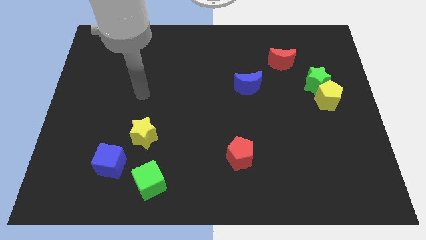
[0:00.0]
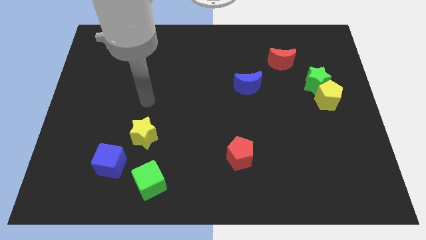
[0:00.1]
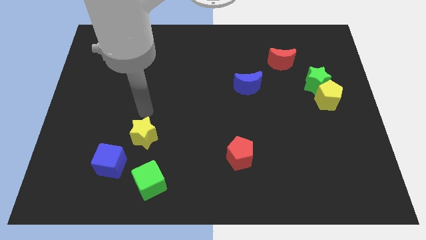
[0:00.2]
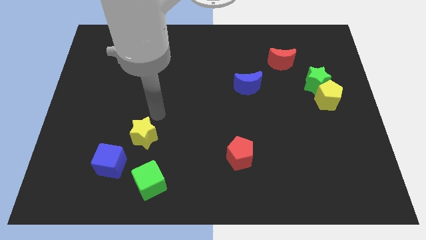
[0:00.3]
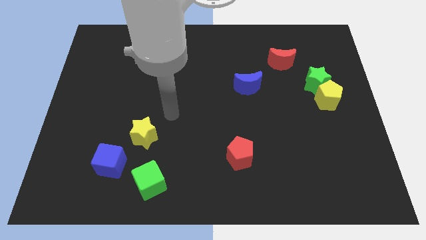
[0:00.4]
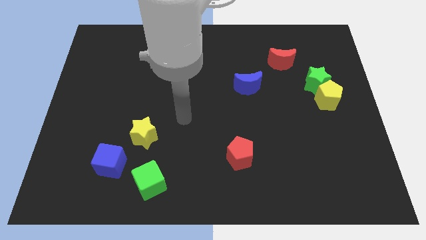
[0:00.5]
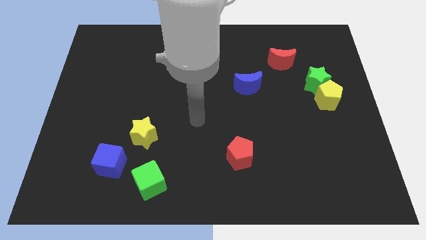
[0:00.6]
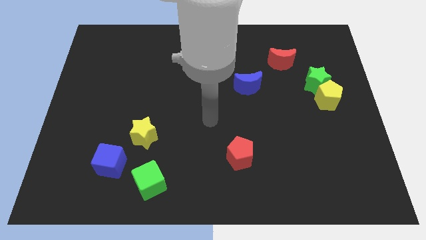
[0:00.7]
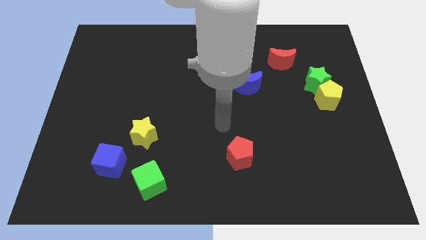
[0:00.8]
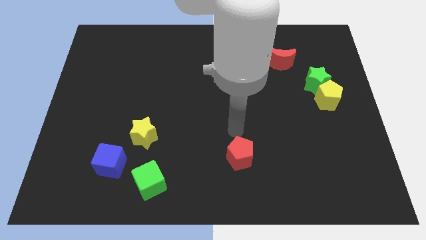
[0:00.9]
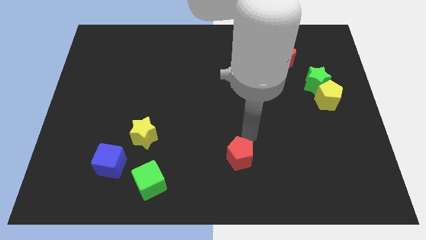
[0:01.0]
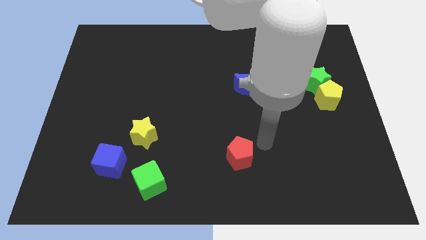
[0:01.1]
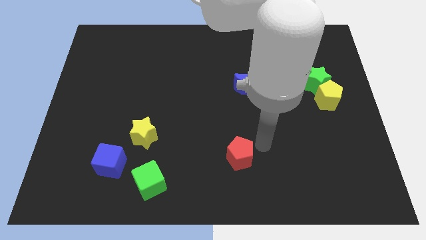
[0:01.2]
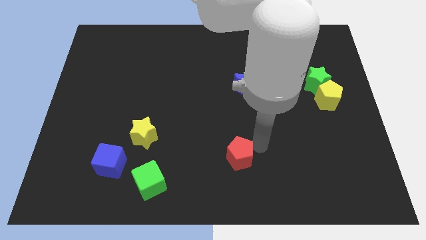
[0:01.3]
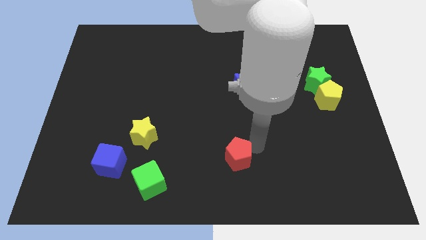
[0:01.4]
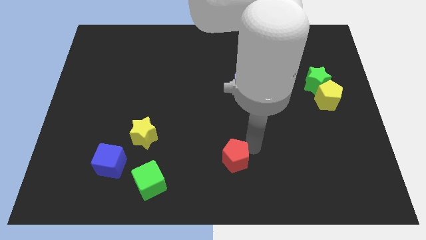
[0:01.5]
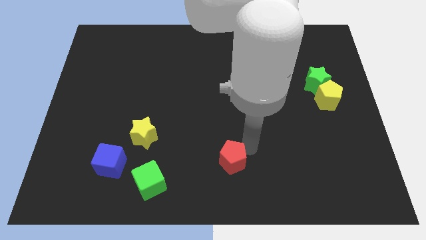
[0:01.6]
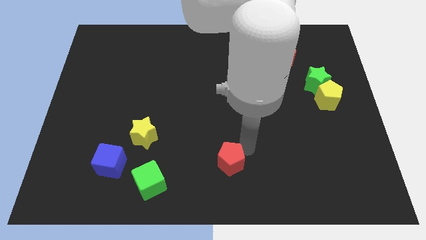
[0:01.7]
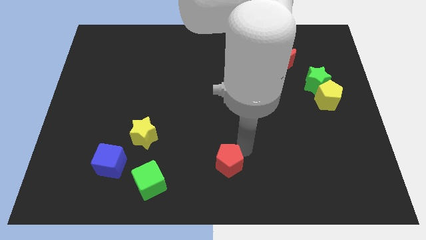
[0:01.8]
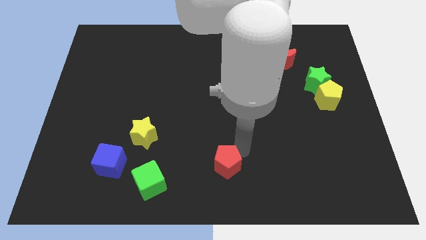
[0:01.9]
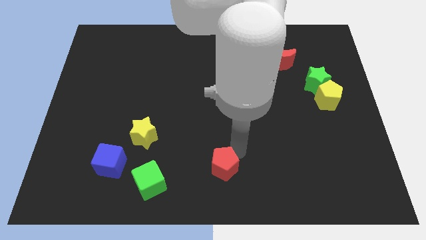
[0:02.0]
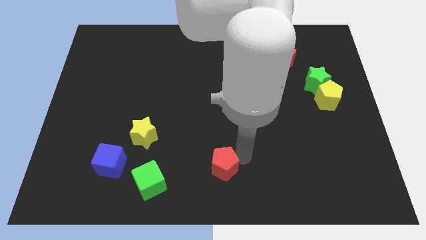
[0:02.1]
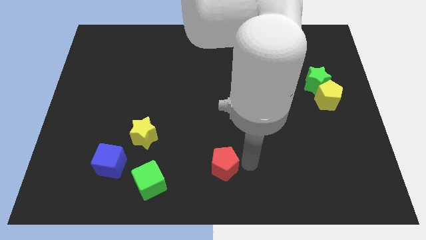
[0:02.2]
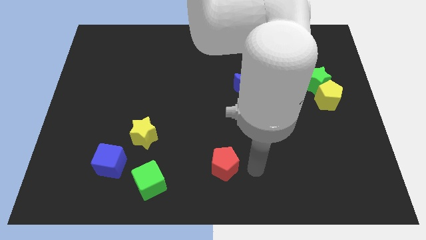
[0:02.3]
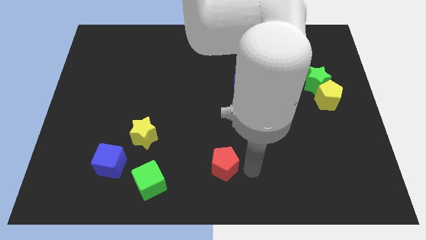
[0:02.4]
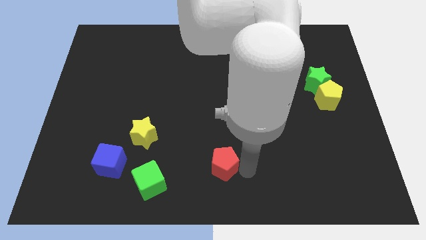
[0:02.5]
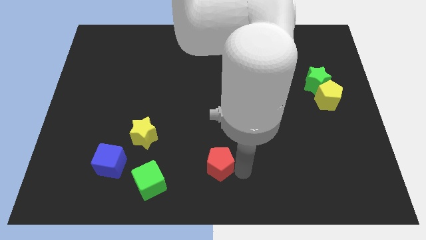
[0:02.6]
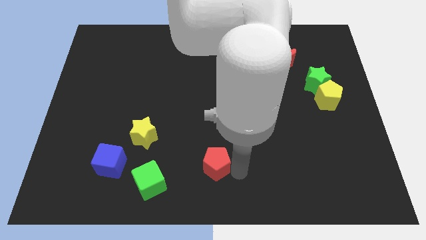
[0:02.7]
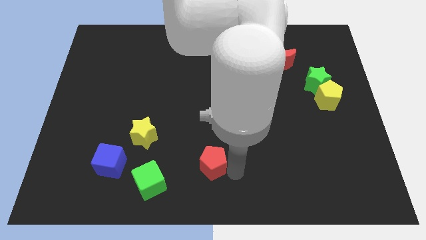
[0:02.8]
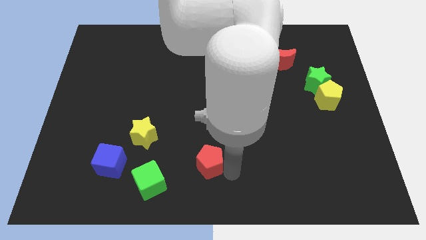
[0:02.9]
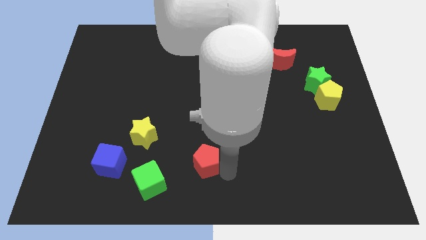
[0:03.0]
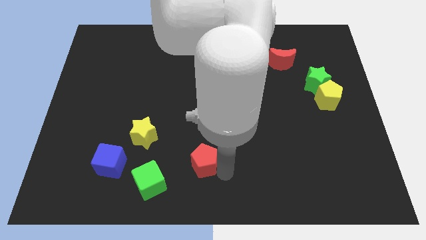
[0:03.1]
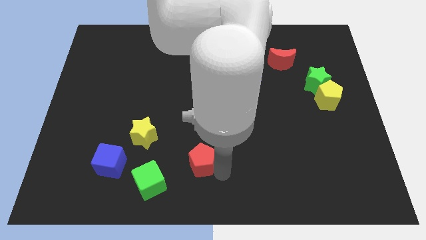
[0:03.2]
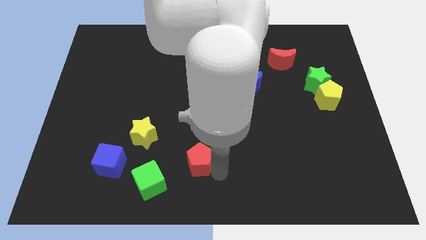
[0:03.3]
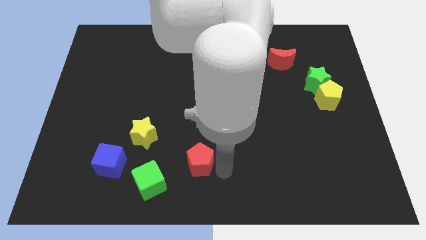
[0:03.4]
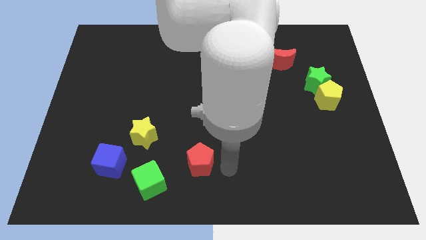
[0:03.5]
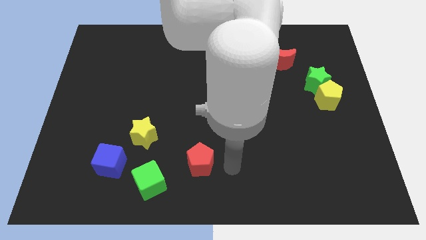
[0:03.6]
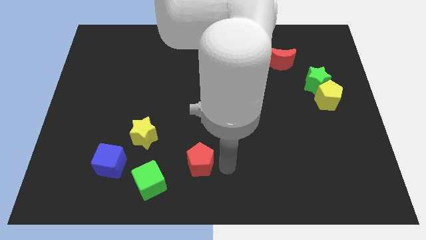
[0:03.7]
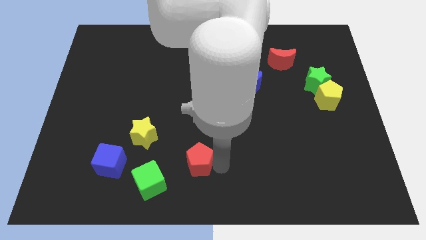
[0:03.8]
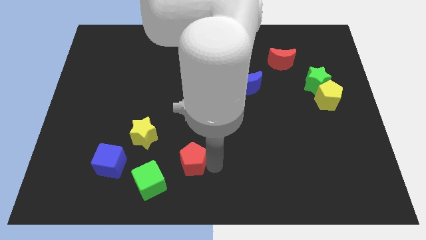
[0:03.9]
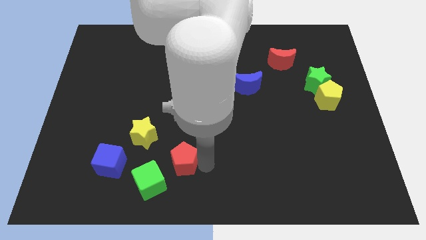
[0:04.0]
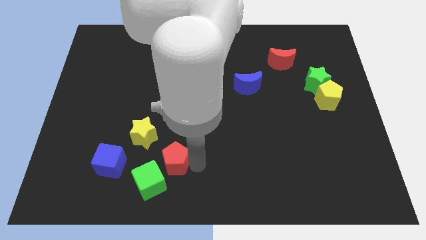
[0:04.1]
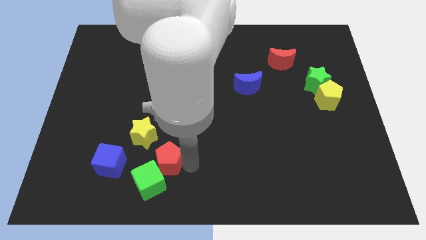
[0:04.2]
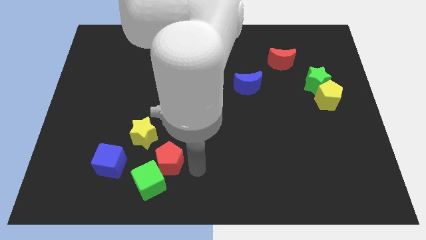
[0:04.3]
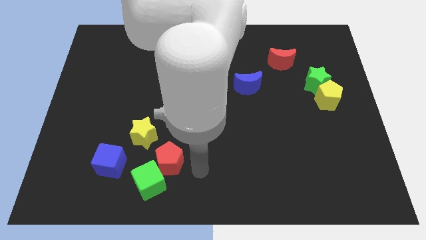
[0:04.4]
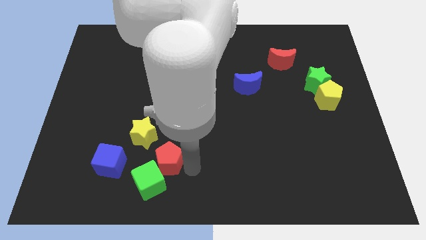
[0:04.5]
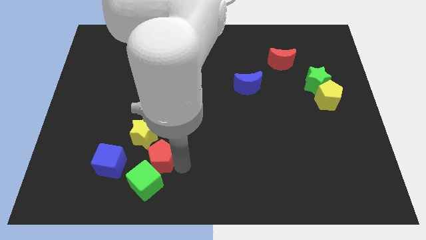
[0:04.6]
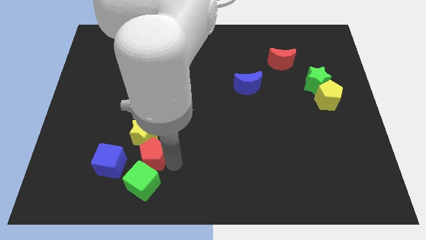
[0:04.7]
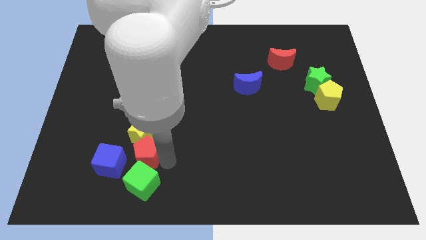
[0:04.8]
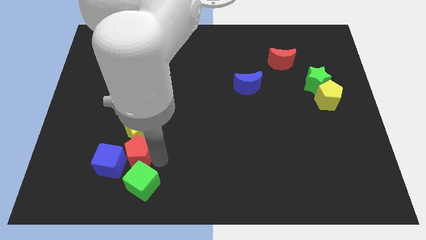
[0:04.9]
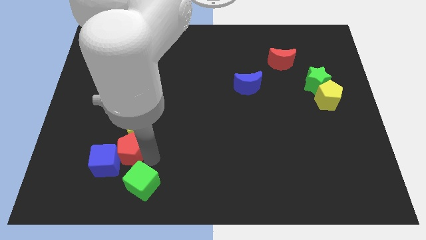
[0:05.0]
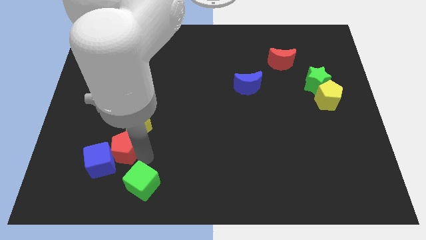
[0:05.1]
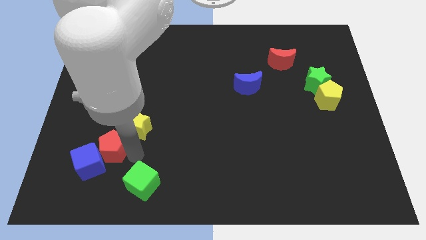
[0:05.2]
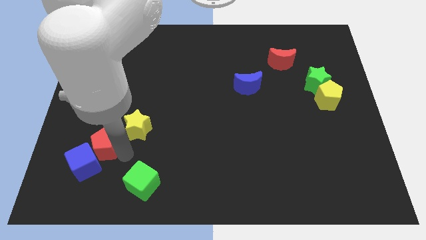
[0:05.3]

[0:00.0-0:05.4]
push the red pentagon just left of the yellow star

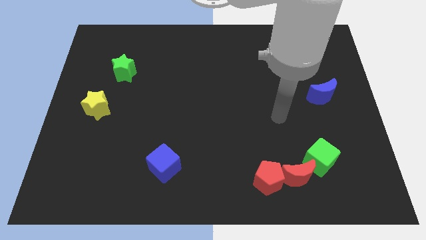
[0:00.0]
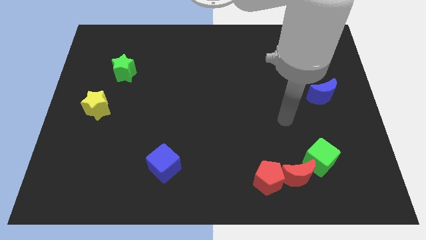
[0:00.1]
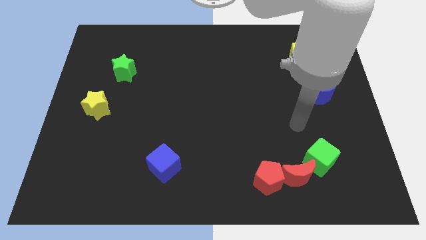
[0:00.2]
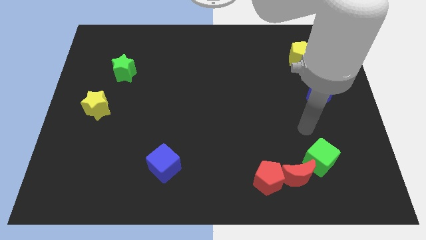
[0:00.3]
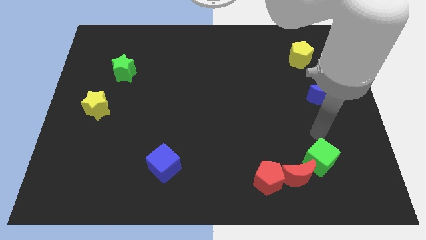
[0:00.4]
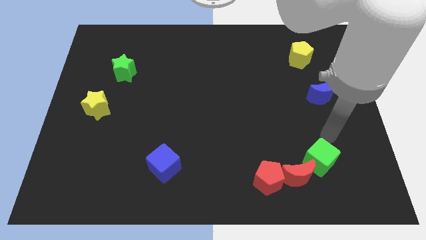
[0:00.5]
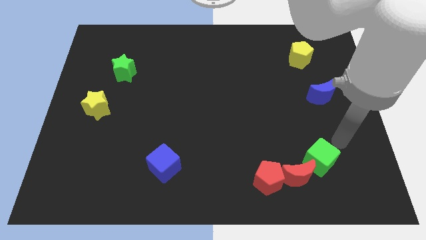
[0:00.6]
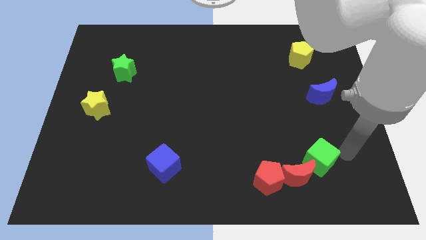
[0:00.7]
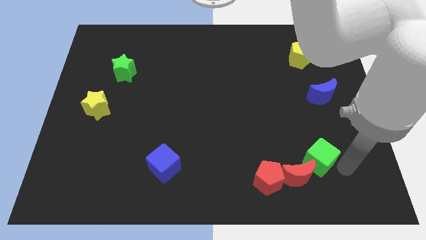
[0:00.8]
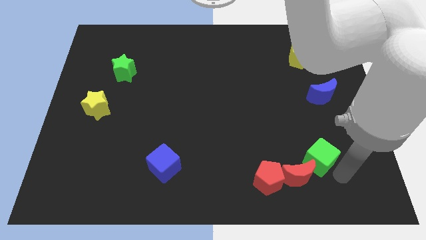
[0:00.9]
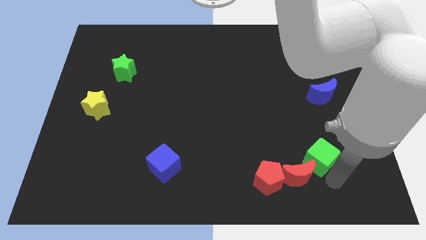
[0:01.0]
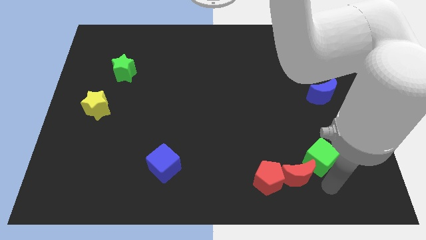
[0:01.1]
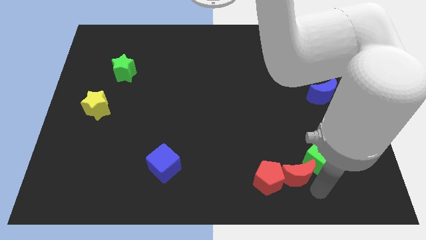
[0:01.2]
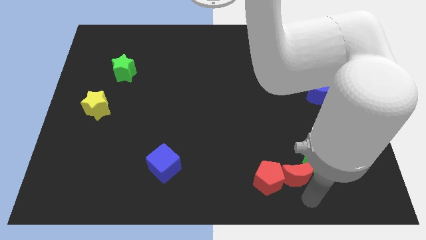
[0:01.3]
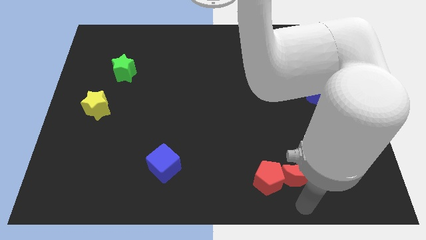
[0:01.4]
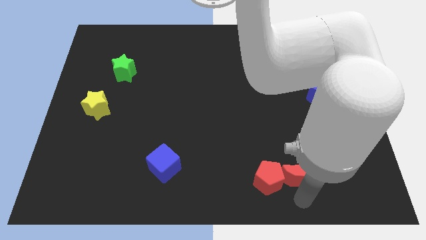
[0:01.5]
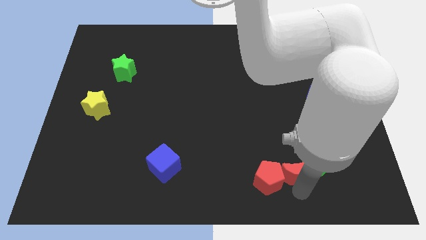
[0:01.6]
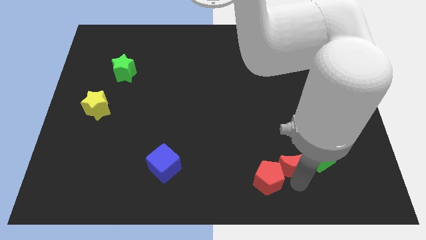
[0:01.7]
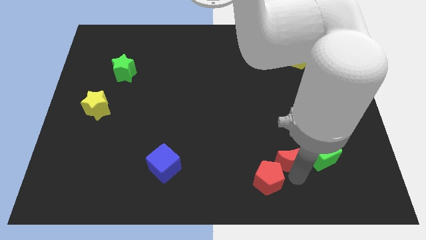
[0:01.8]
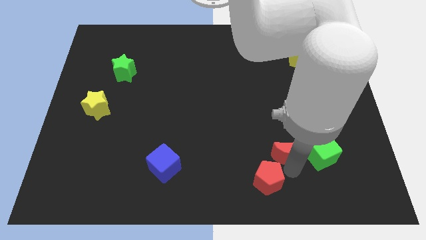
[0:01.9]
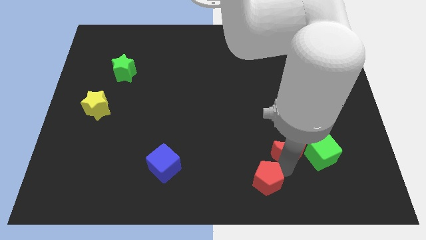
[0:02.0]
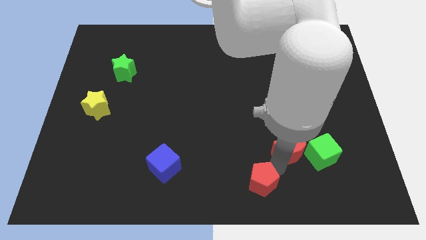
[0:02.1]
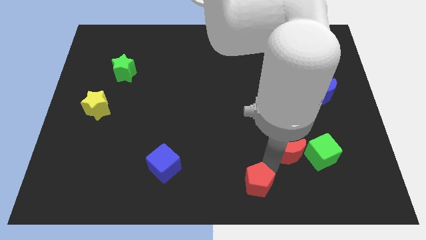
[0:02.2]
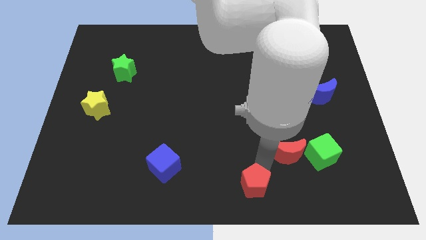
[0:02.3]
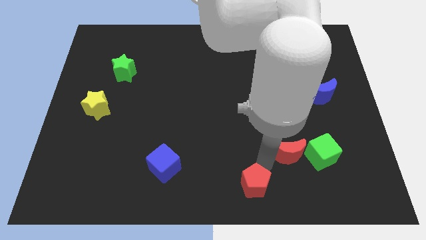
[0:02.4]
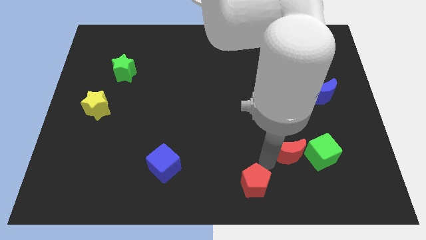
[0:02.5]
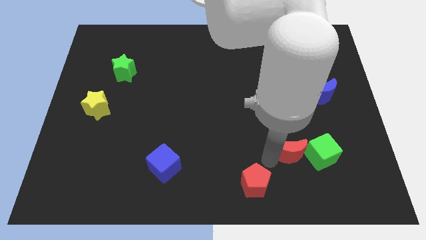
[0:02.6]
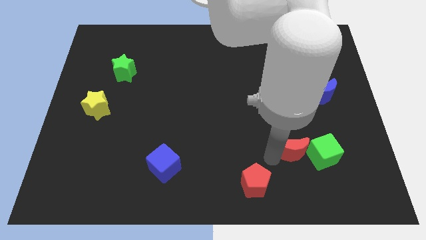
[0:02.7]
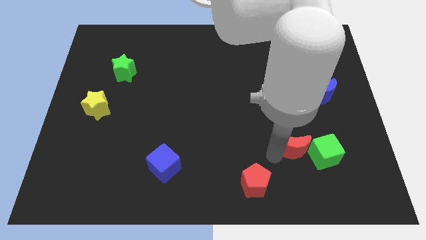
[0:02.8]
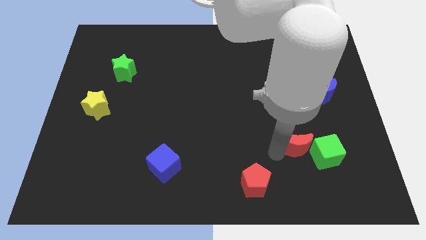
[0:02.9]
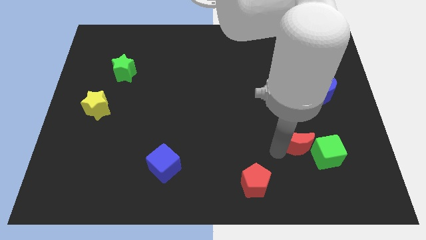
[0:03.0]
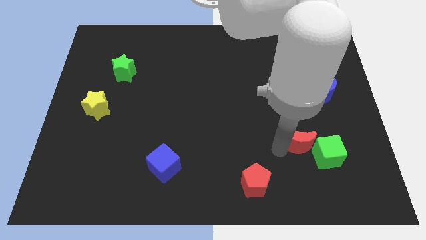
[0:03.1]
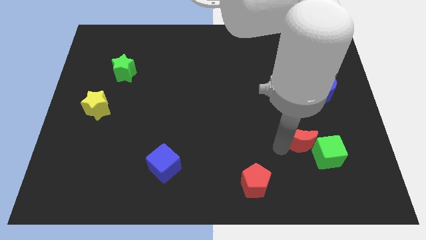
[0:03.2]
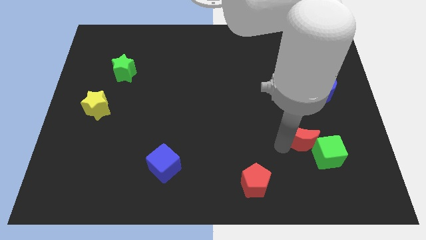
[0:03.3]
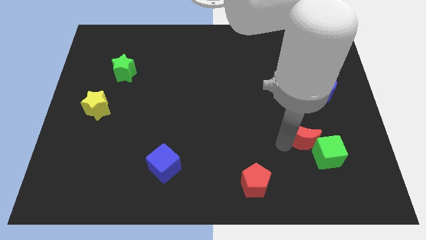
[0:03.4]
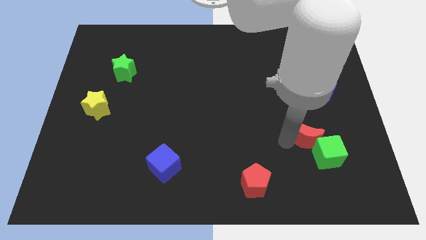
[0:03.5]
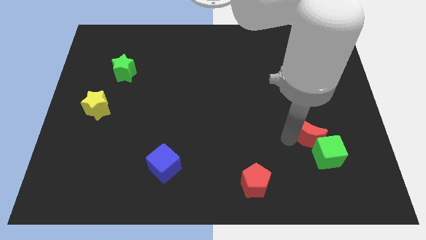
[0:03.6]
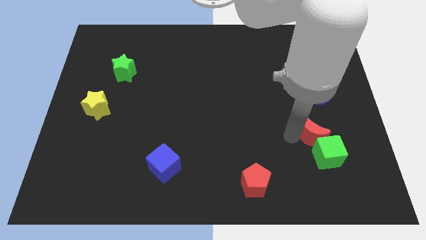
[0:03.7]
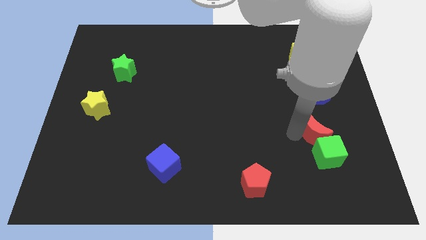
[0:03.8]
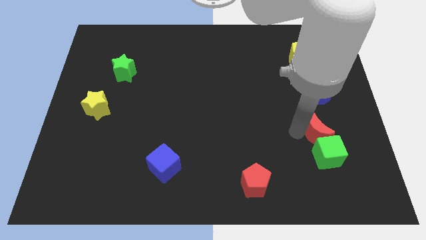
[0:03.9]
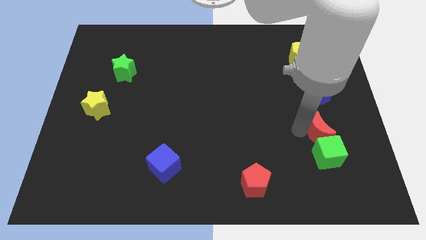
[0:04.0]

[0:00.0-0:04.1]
put the red moon to the top right of the green cube
